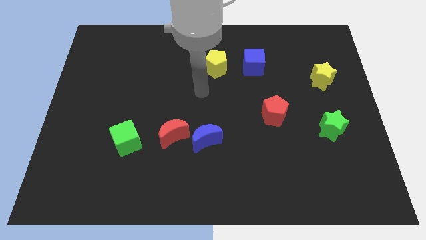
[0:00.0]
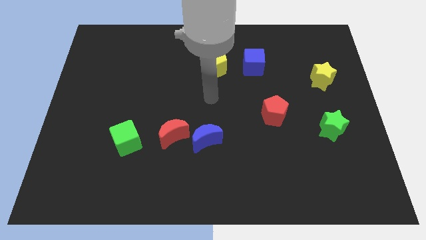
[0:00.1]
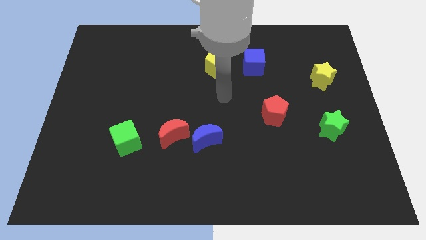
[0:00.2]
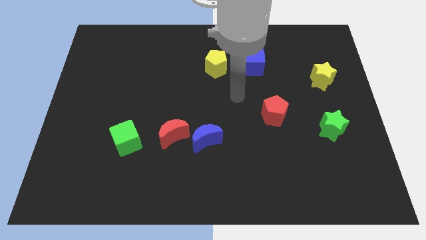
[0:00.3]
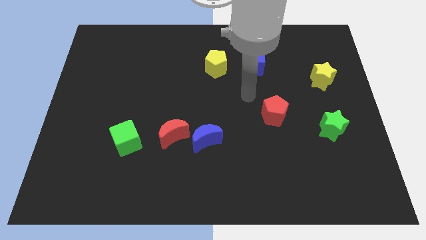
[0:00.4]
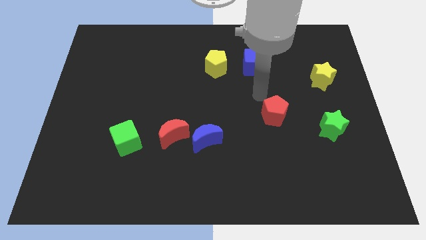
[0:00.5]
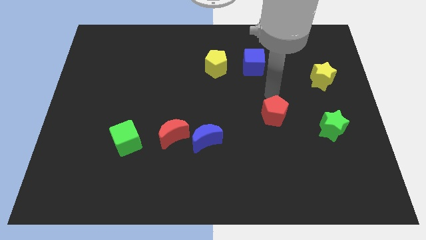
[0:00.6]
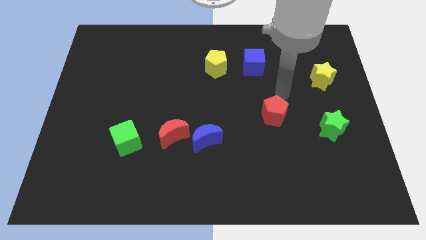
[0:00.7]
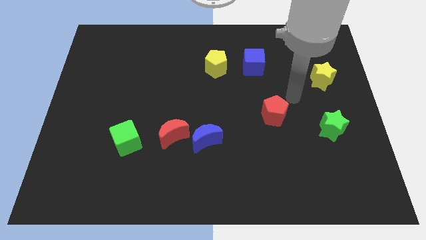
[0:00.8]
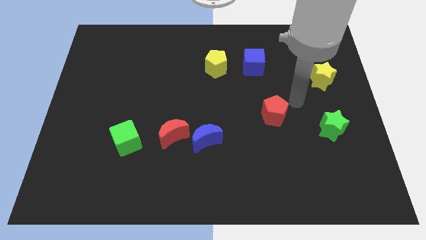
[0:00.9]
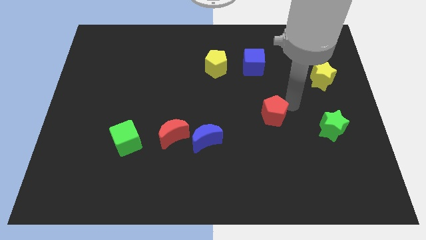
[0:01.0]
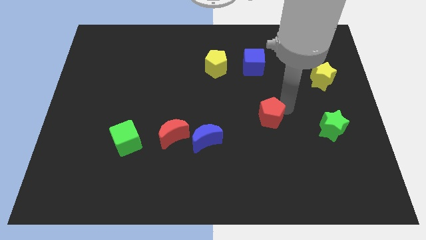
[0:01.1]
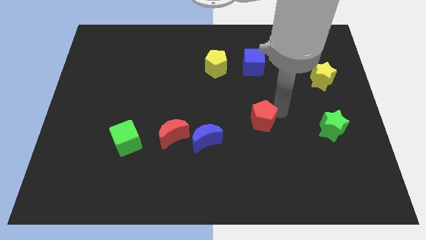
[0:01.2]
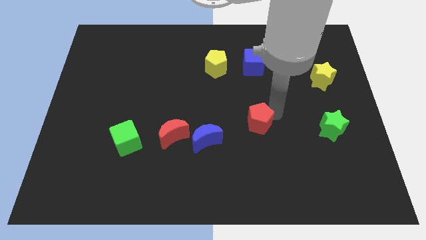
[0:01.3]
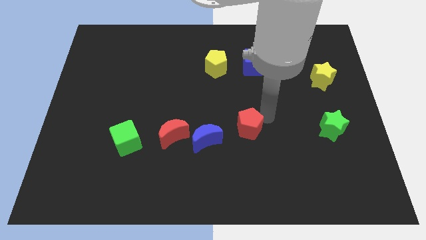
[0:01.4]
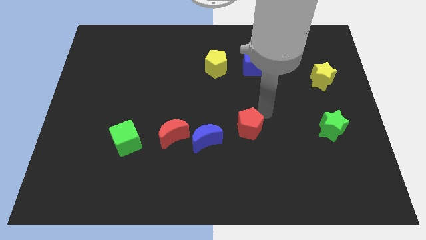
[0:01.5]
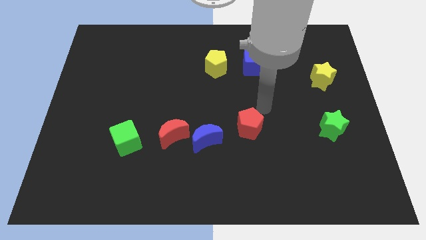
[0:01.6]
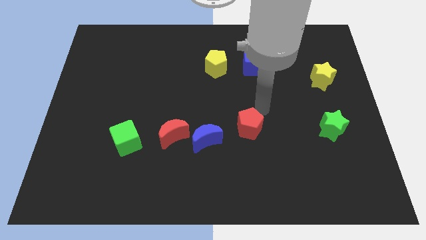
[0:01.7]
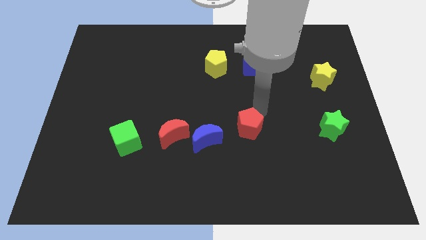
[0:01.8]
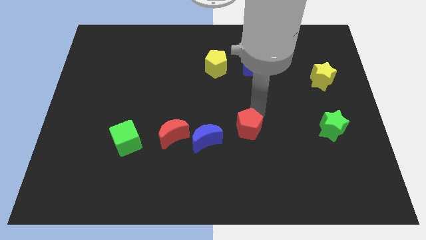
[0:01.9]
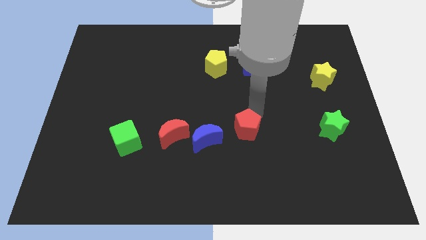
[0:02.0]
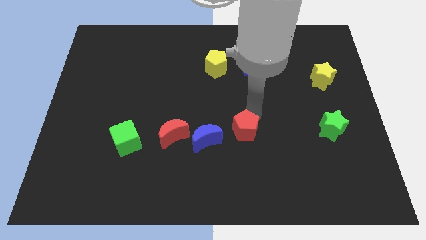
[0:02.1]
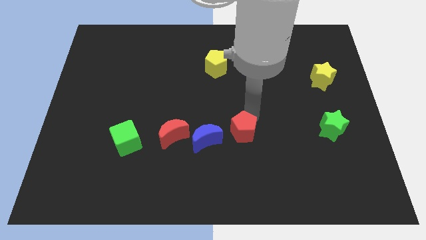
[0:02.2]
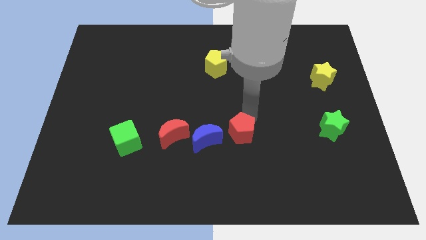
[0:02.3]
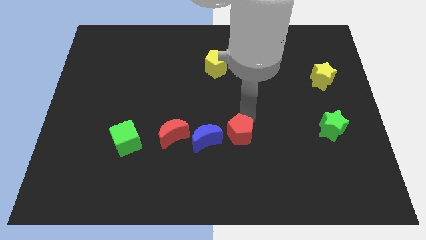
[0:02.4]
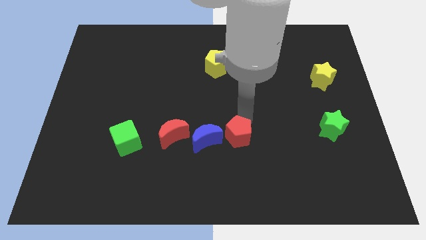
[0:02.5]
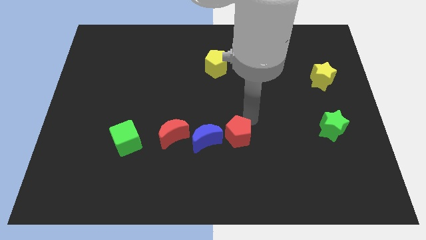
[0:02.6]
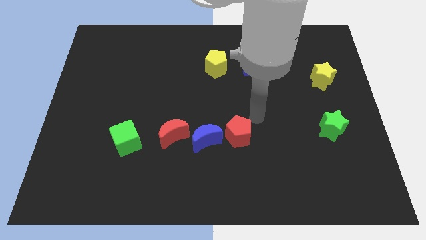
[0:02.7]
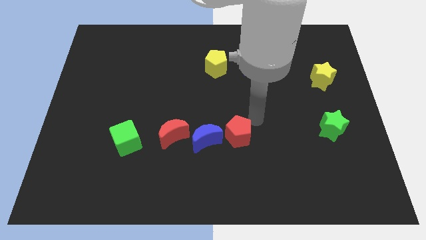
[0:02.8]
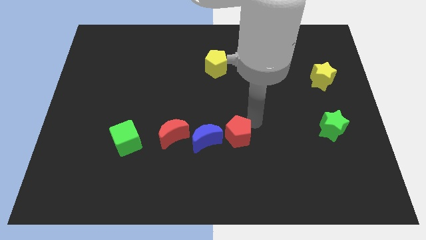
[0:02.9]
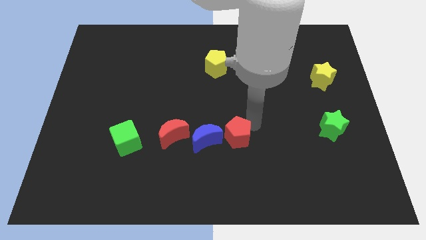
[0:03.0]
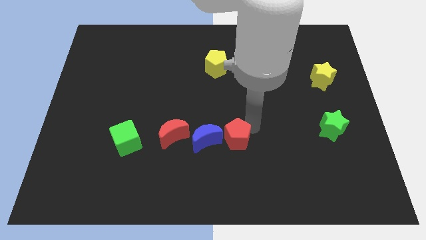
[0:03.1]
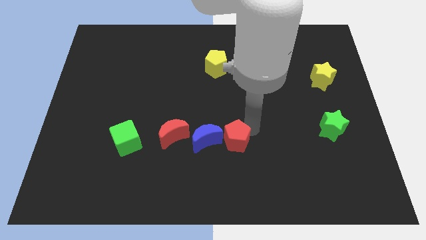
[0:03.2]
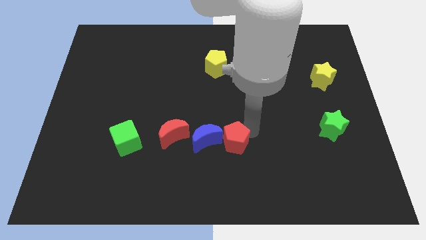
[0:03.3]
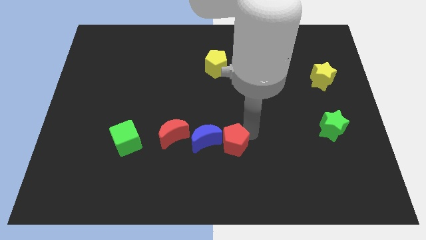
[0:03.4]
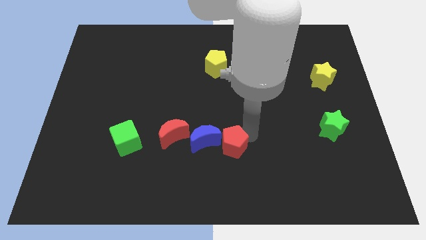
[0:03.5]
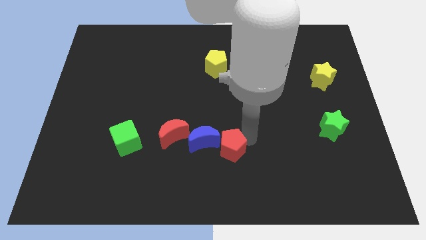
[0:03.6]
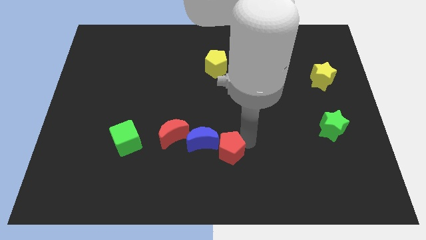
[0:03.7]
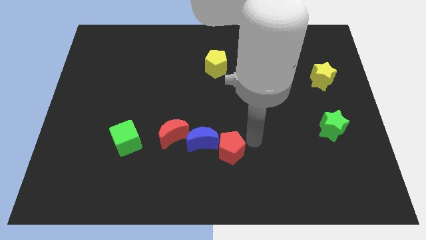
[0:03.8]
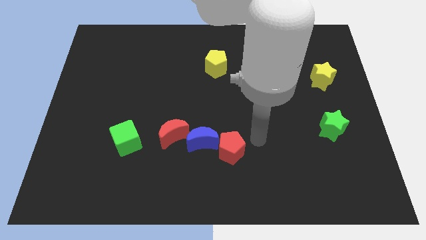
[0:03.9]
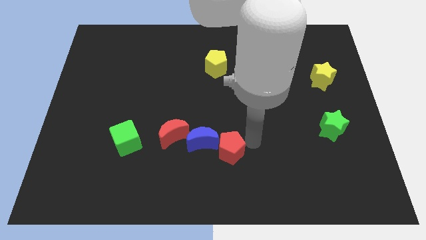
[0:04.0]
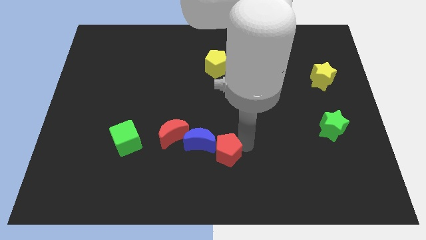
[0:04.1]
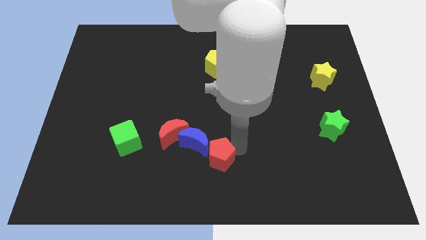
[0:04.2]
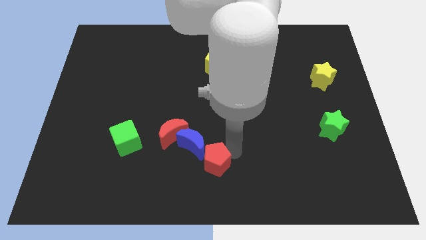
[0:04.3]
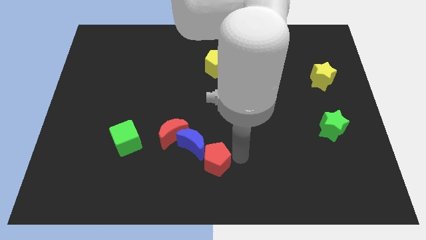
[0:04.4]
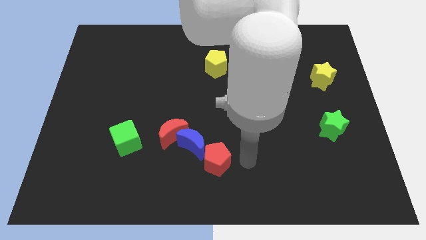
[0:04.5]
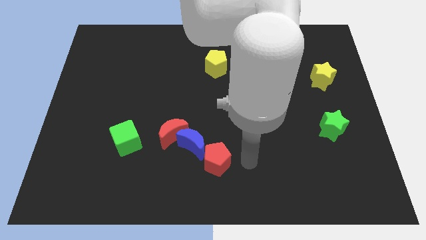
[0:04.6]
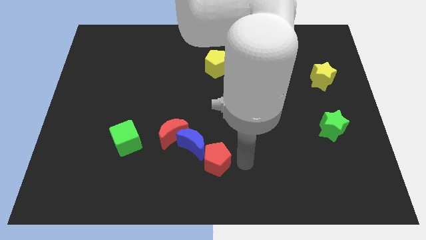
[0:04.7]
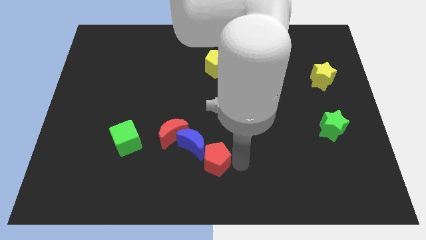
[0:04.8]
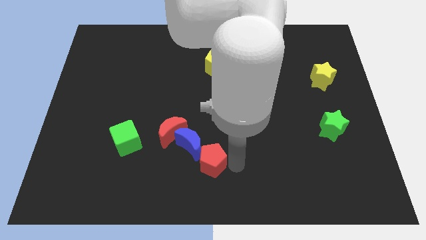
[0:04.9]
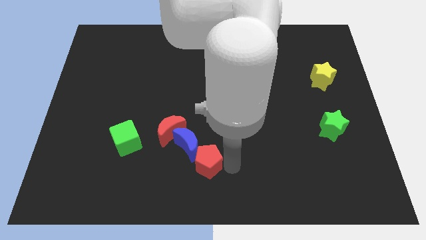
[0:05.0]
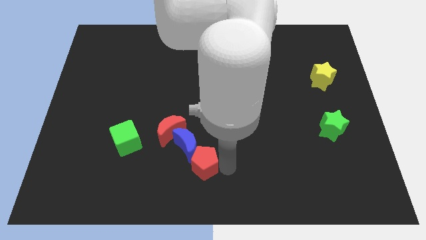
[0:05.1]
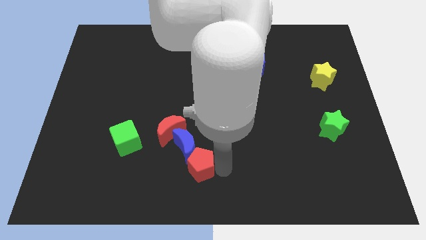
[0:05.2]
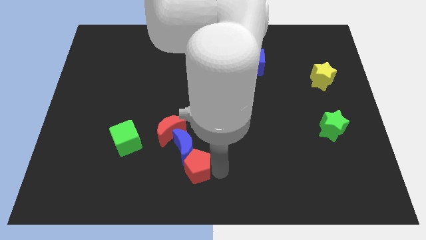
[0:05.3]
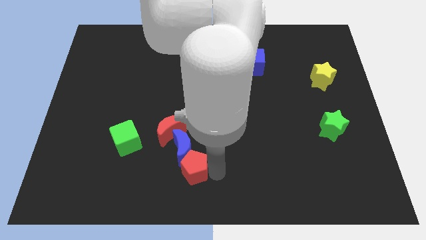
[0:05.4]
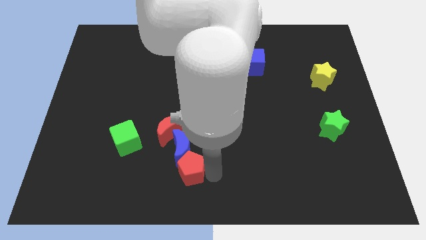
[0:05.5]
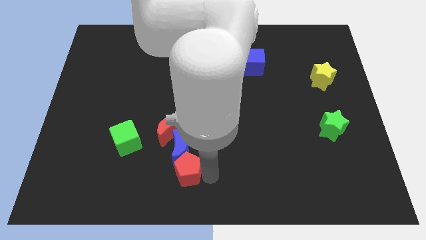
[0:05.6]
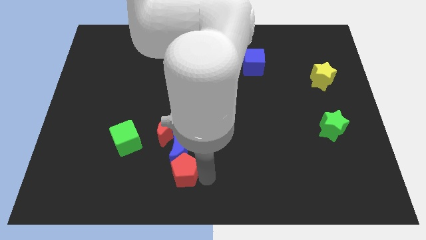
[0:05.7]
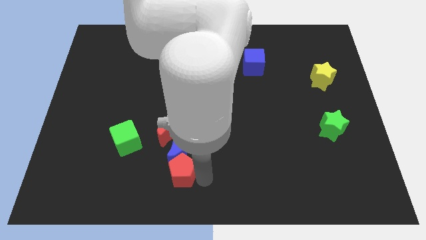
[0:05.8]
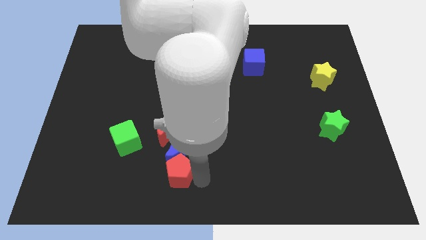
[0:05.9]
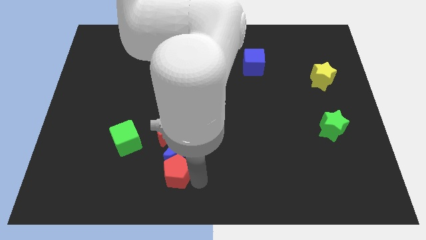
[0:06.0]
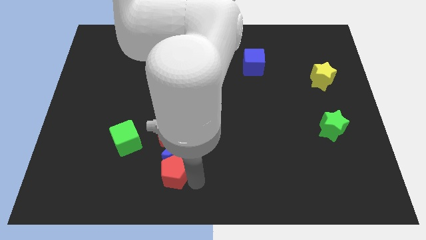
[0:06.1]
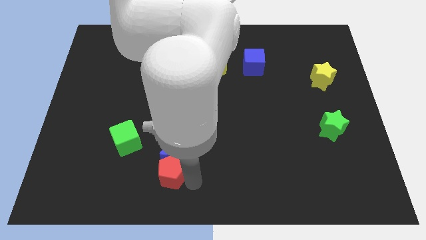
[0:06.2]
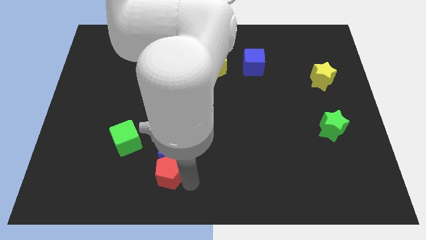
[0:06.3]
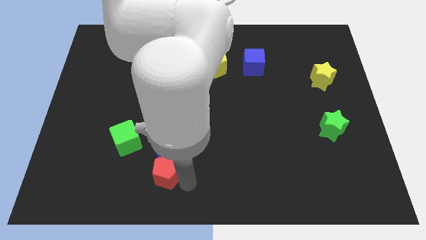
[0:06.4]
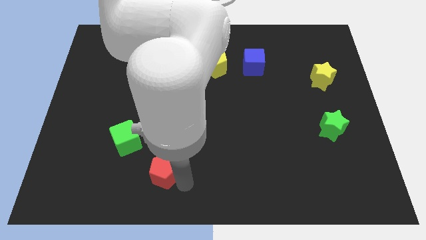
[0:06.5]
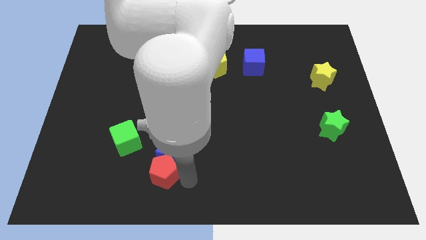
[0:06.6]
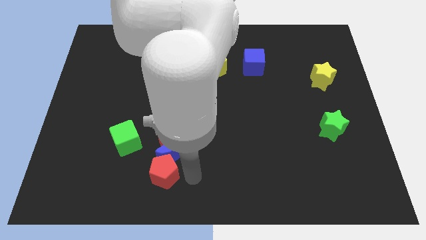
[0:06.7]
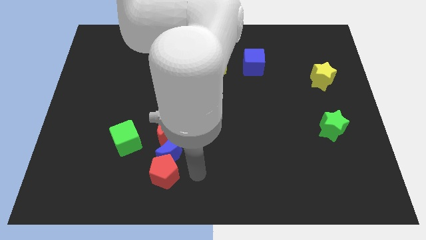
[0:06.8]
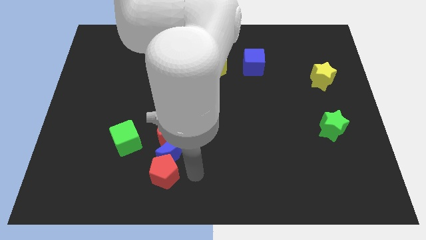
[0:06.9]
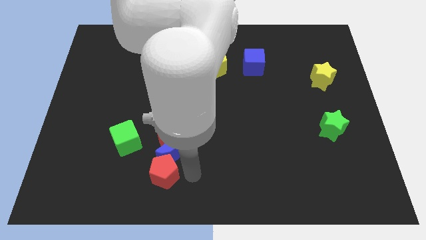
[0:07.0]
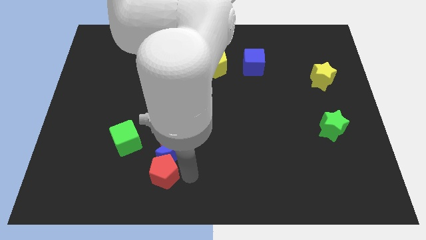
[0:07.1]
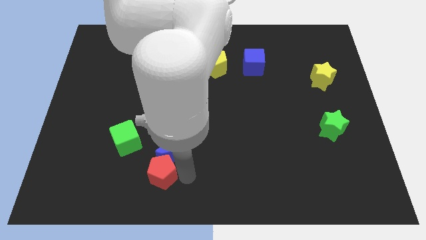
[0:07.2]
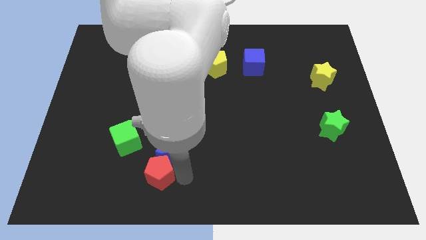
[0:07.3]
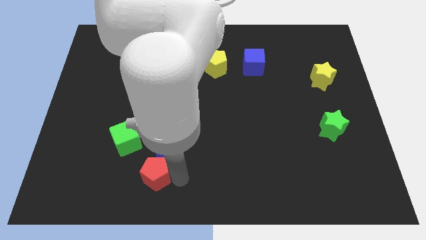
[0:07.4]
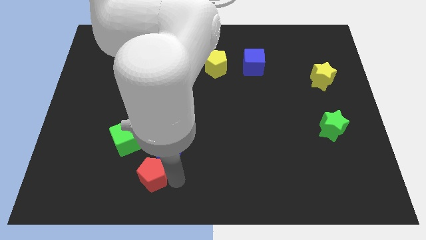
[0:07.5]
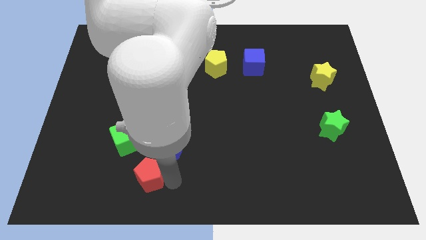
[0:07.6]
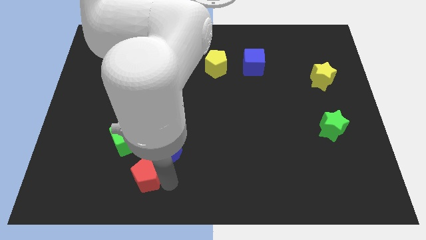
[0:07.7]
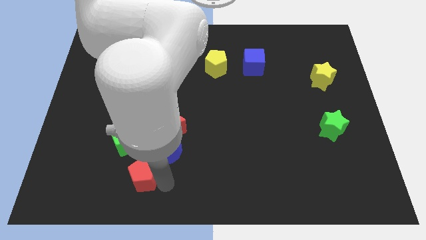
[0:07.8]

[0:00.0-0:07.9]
move the red pentagon below the green cube
